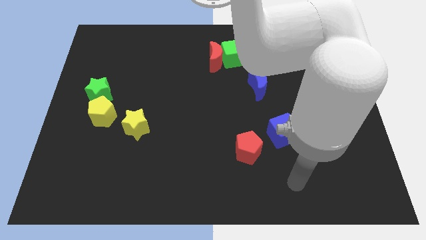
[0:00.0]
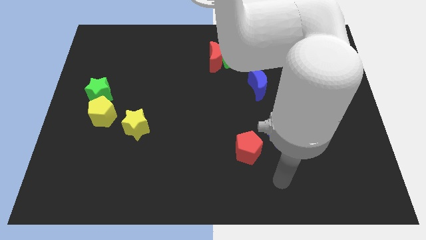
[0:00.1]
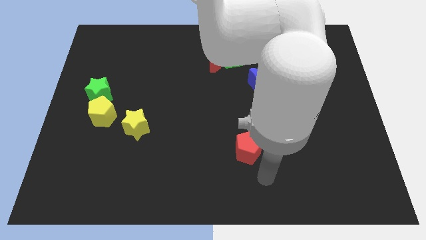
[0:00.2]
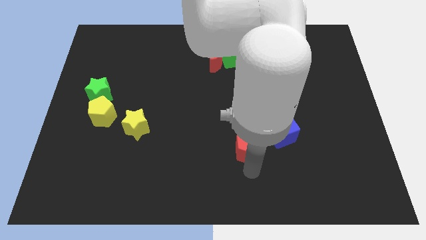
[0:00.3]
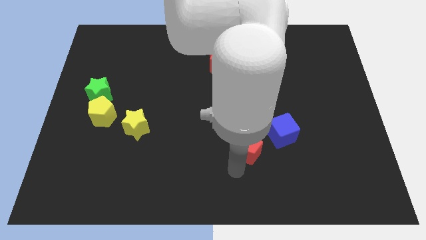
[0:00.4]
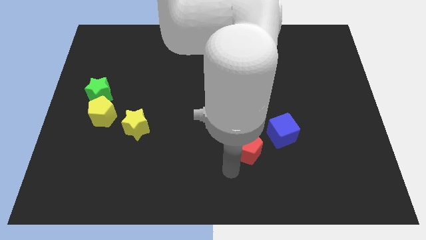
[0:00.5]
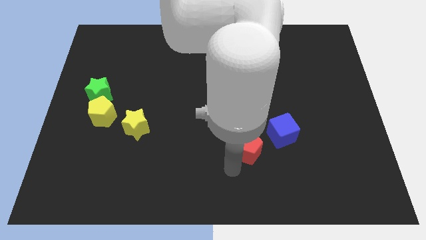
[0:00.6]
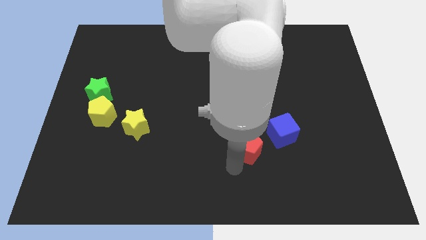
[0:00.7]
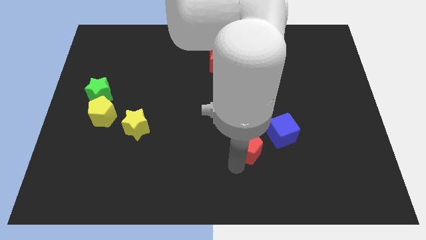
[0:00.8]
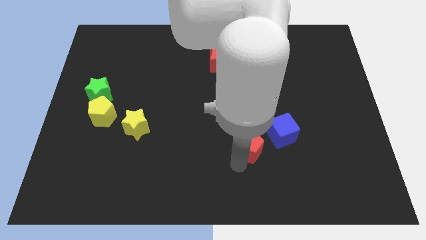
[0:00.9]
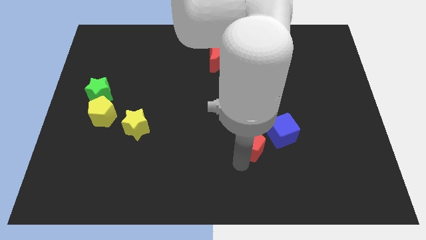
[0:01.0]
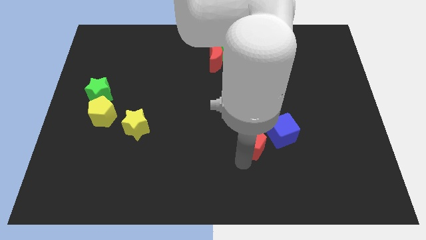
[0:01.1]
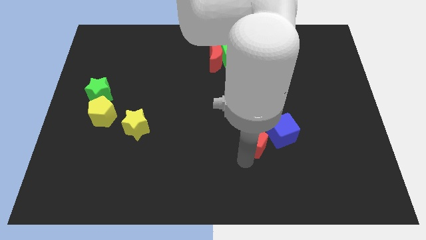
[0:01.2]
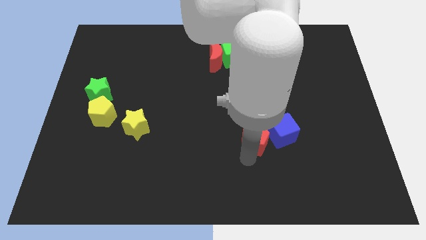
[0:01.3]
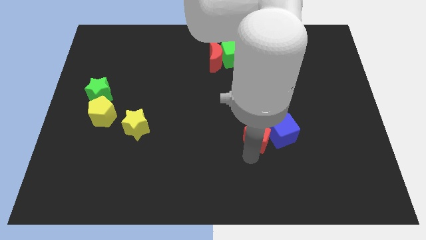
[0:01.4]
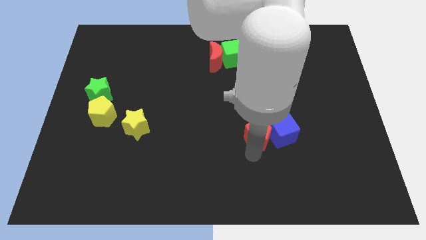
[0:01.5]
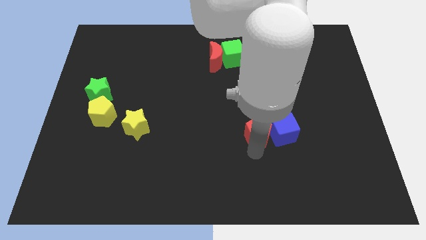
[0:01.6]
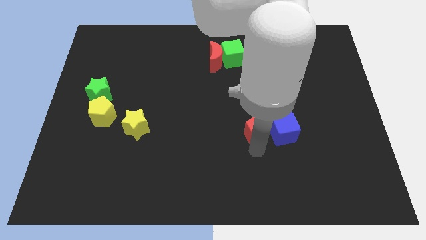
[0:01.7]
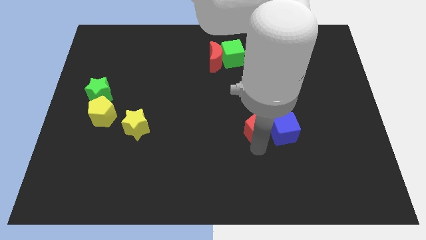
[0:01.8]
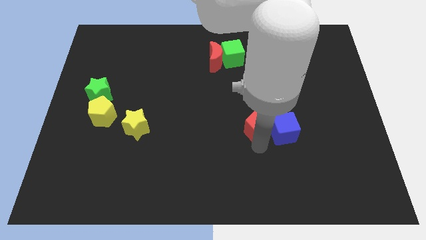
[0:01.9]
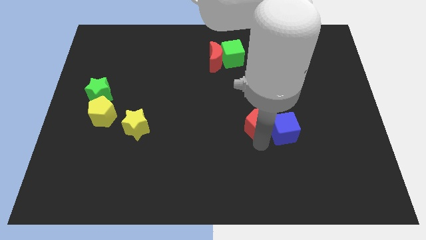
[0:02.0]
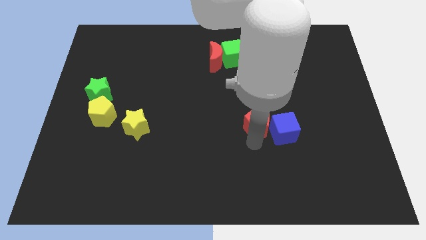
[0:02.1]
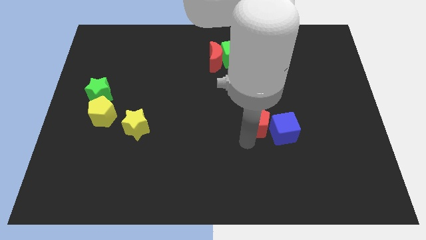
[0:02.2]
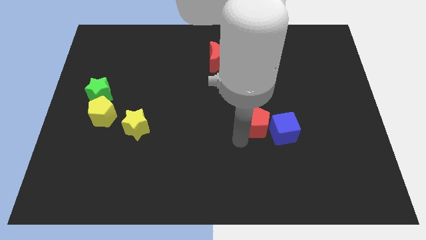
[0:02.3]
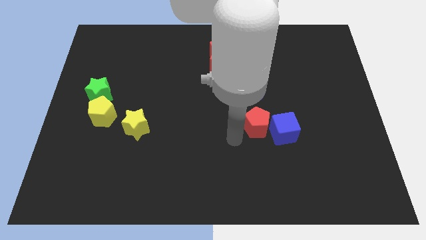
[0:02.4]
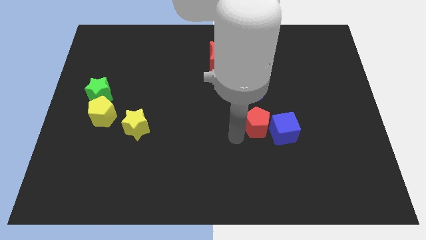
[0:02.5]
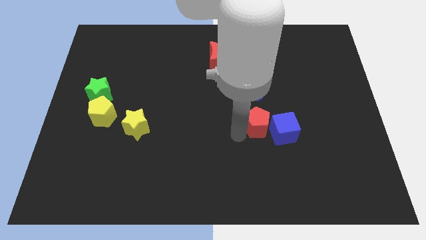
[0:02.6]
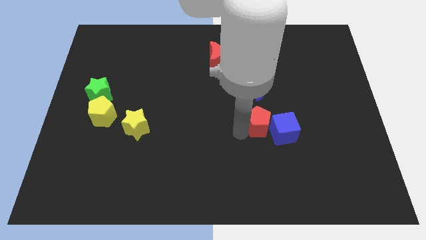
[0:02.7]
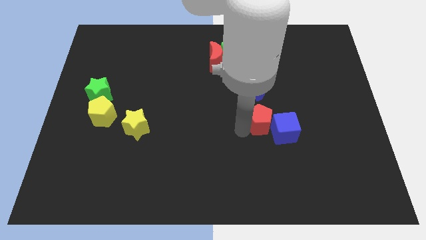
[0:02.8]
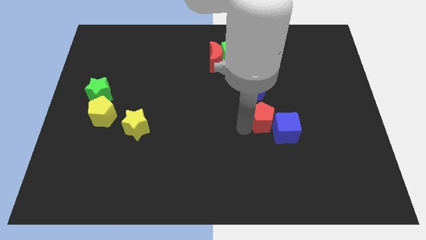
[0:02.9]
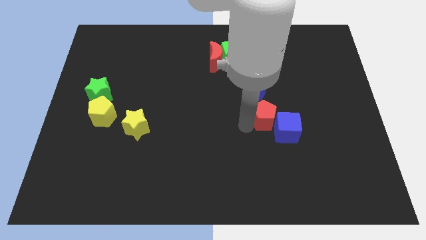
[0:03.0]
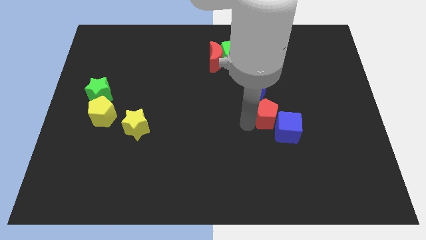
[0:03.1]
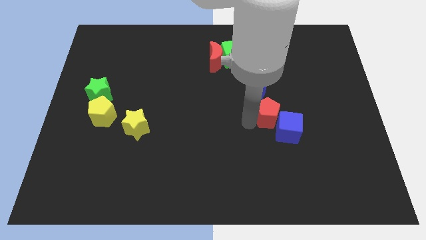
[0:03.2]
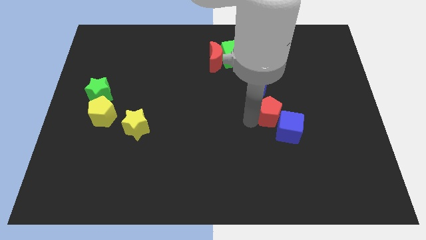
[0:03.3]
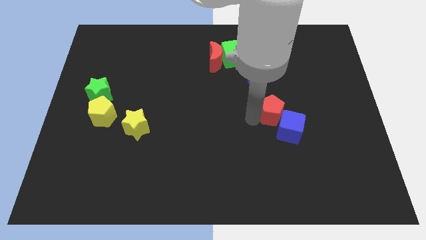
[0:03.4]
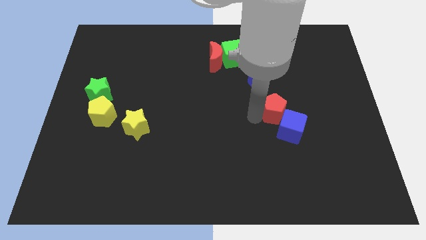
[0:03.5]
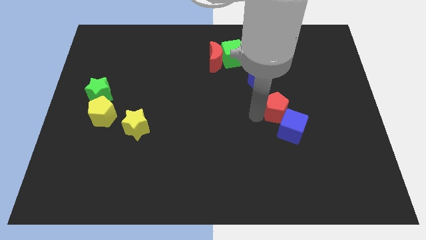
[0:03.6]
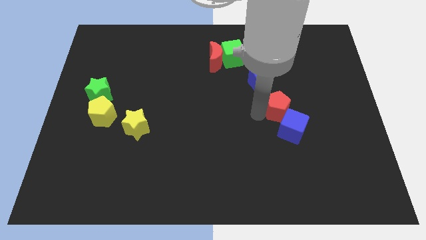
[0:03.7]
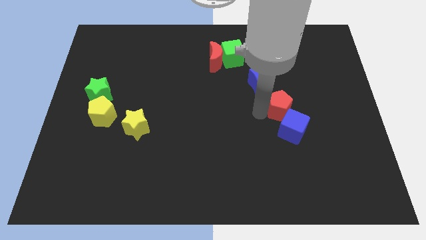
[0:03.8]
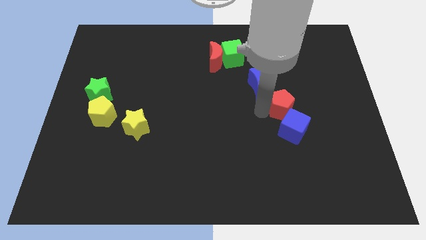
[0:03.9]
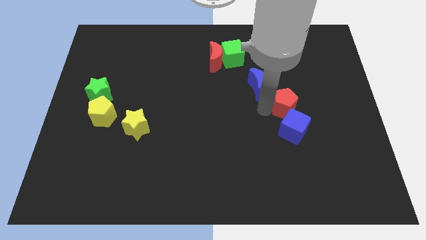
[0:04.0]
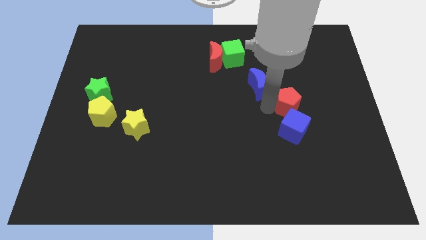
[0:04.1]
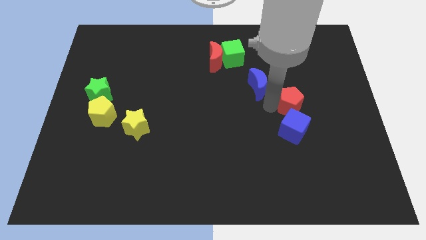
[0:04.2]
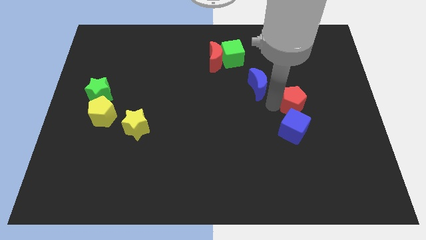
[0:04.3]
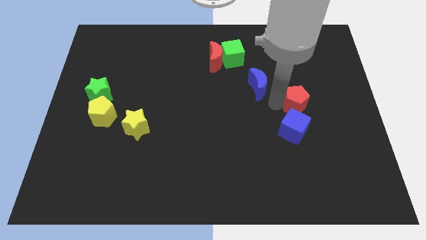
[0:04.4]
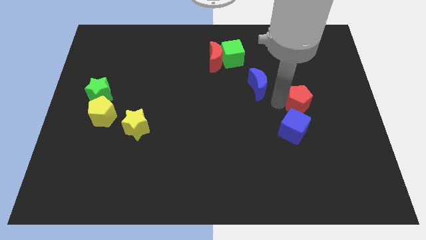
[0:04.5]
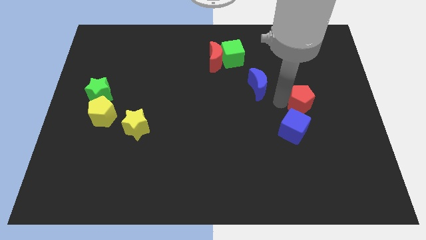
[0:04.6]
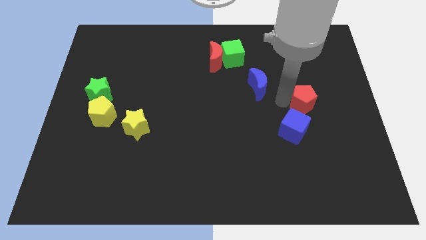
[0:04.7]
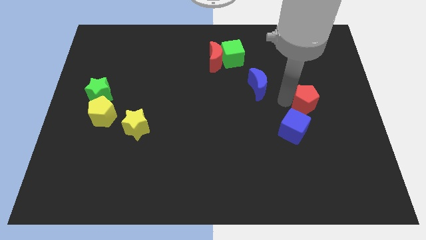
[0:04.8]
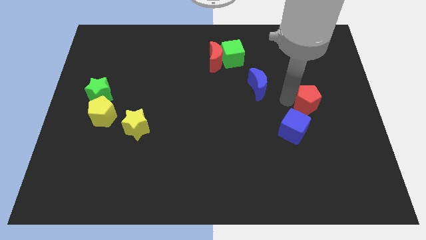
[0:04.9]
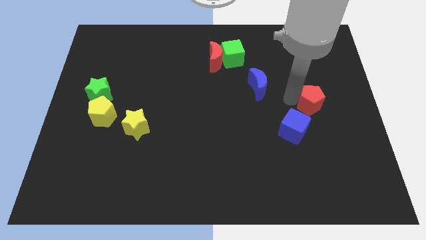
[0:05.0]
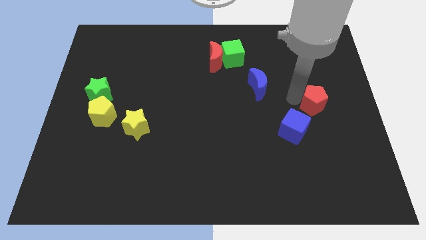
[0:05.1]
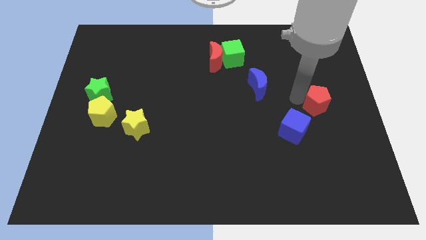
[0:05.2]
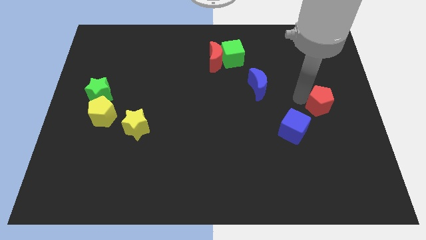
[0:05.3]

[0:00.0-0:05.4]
move the red pentagon to the right side of the board

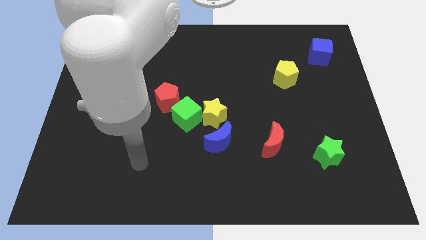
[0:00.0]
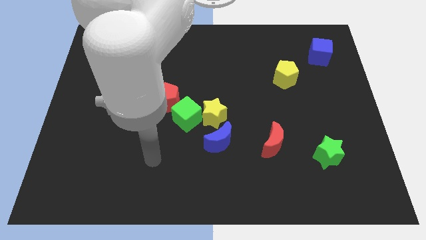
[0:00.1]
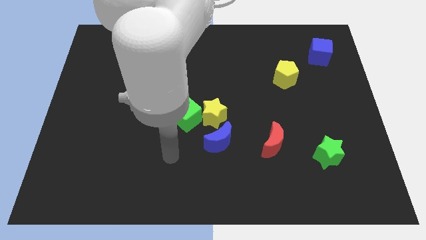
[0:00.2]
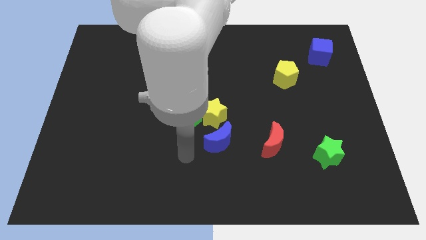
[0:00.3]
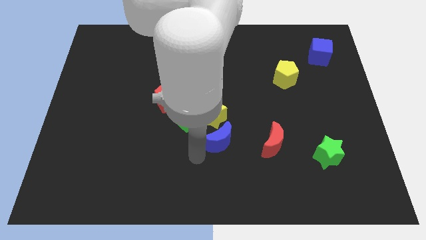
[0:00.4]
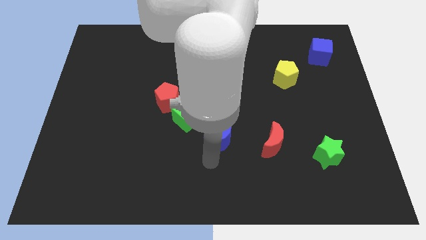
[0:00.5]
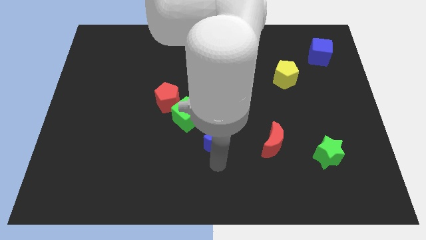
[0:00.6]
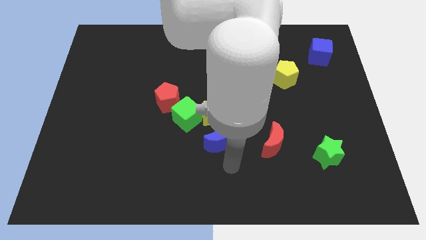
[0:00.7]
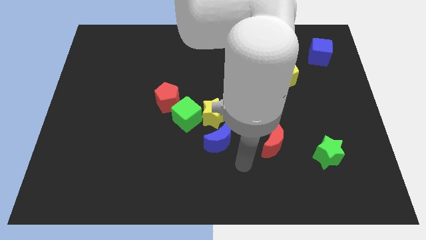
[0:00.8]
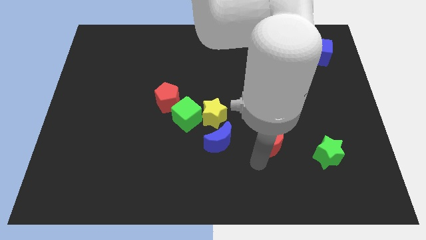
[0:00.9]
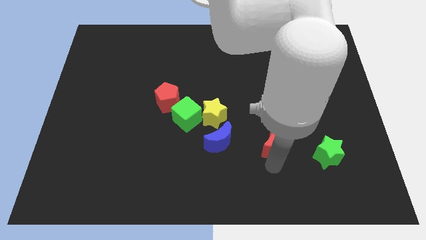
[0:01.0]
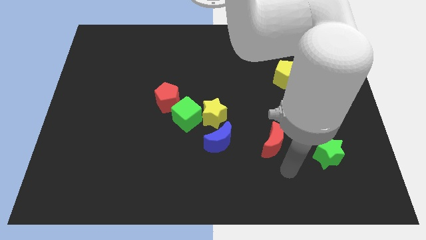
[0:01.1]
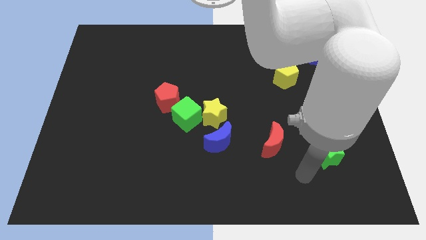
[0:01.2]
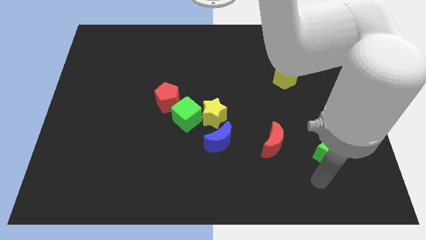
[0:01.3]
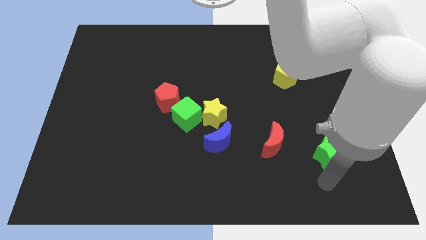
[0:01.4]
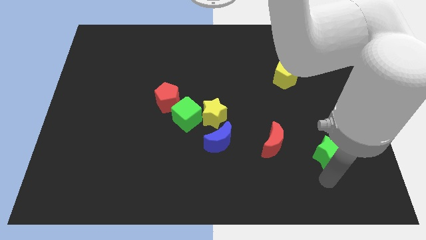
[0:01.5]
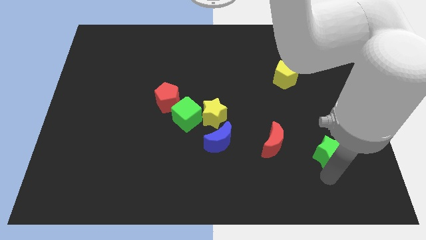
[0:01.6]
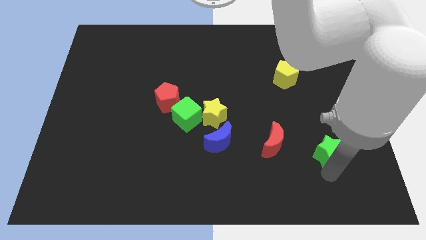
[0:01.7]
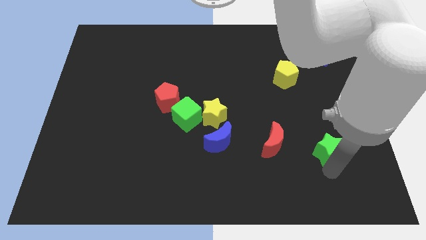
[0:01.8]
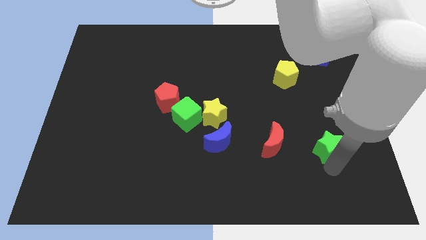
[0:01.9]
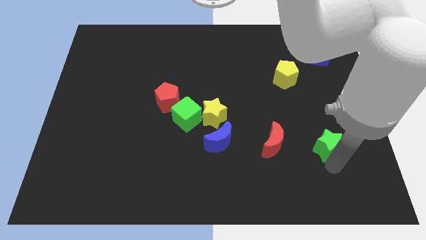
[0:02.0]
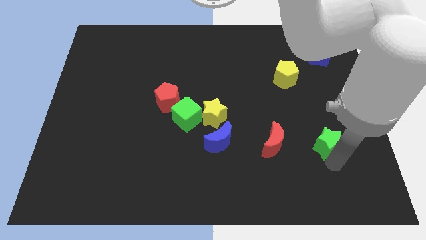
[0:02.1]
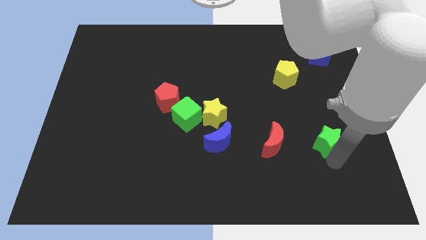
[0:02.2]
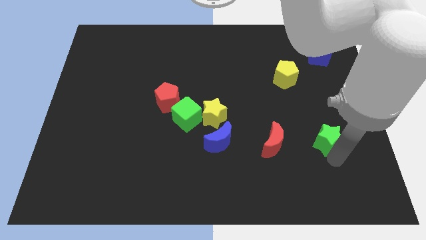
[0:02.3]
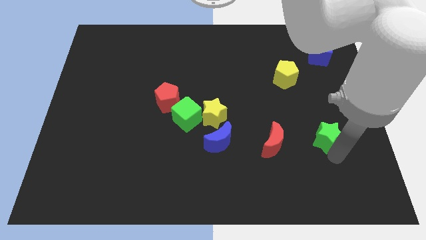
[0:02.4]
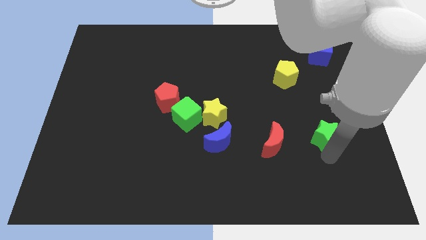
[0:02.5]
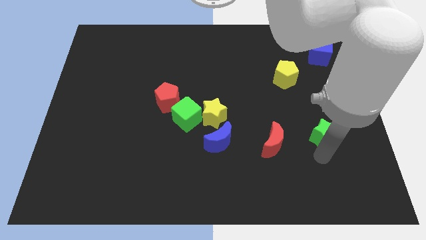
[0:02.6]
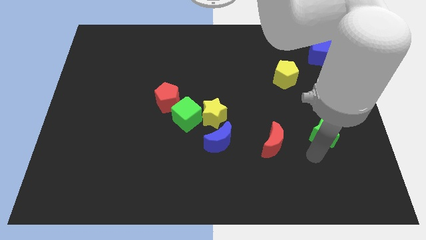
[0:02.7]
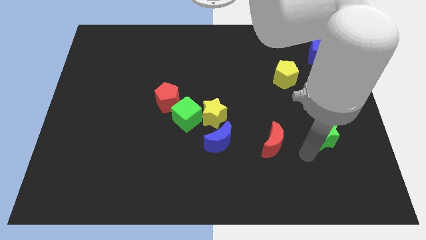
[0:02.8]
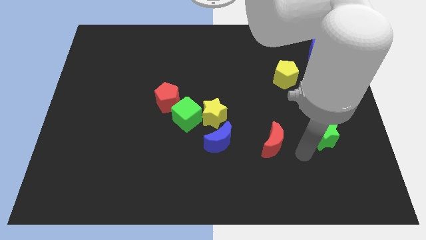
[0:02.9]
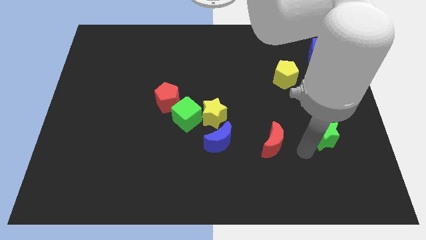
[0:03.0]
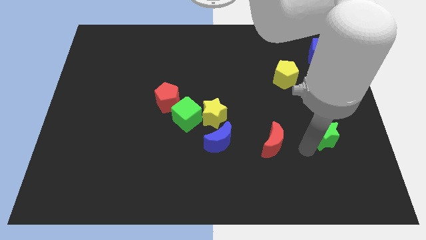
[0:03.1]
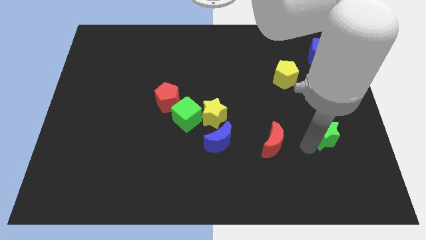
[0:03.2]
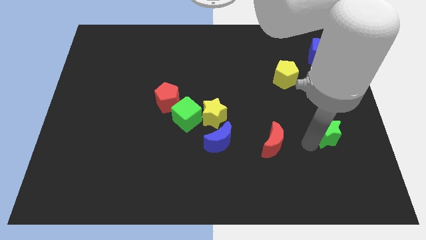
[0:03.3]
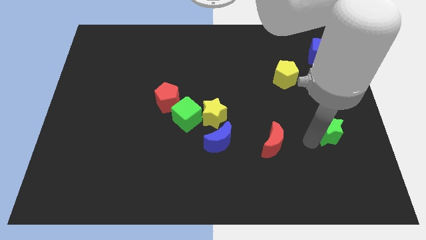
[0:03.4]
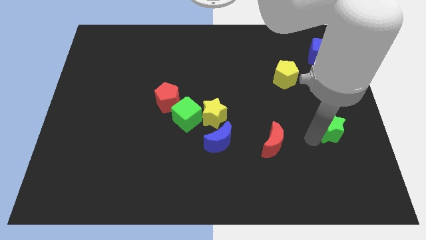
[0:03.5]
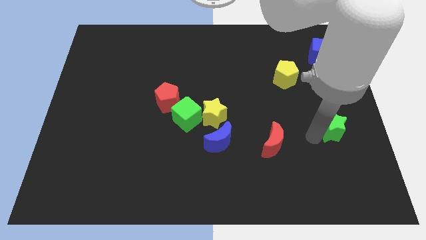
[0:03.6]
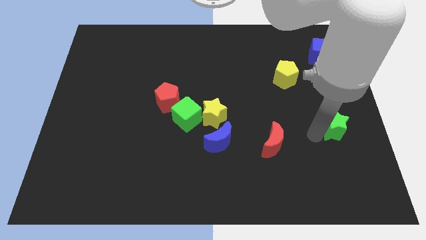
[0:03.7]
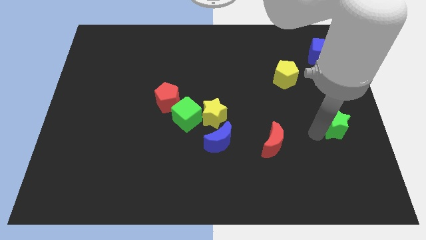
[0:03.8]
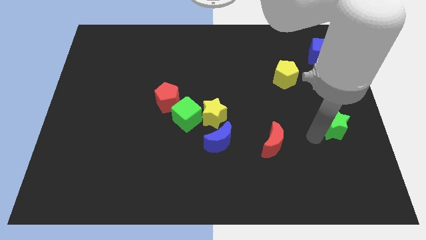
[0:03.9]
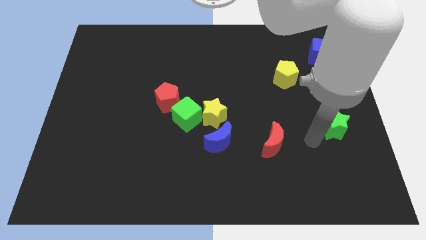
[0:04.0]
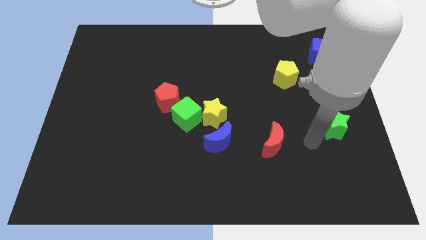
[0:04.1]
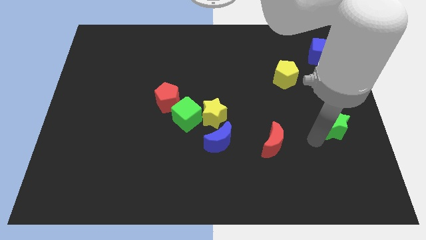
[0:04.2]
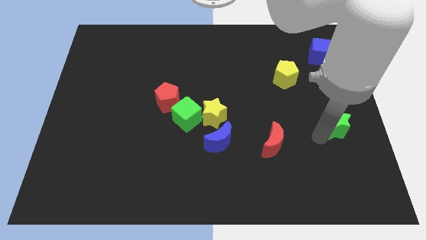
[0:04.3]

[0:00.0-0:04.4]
slide the green star to the center right
